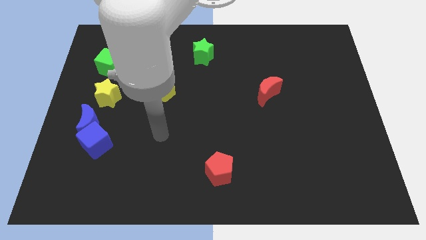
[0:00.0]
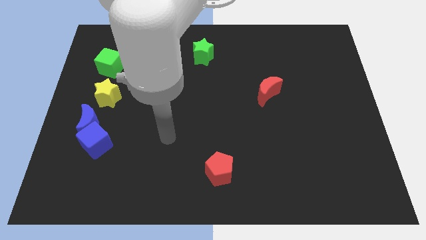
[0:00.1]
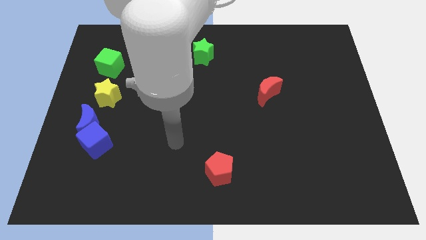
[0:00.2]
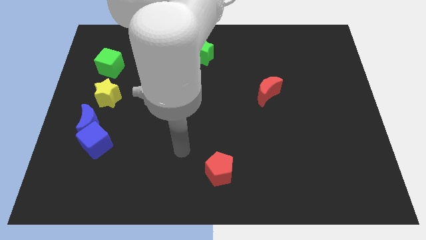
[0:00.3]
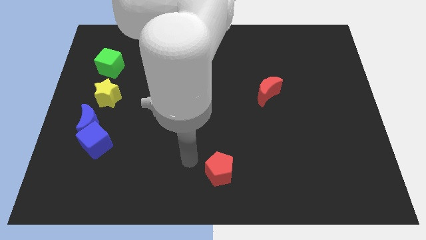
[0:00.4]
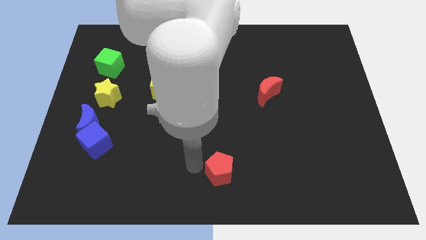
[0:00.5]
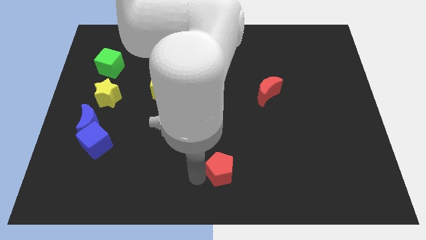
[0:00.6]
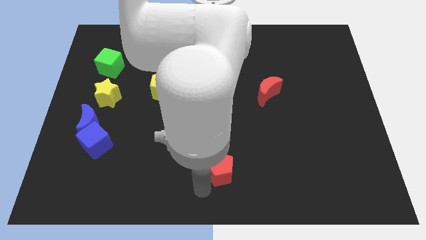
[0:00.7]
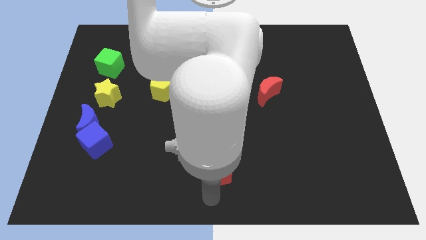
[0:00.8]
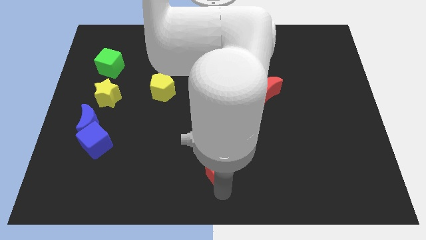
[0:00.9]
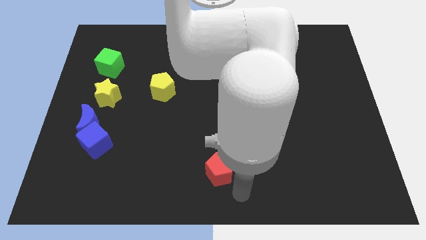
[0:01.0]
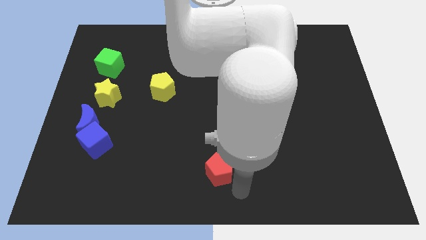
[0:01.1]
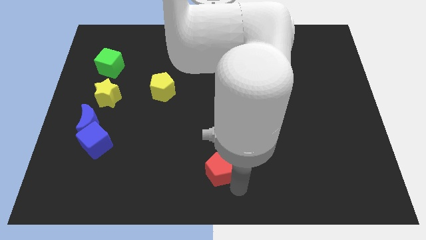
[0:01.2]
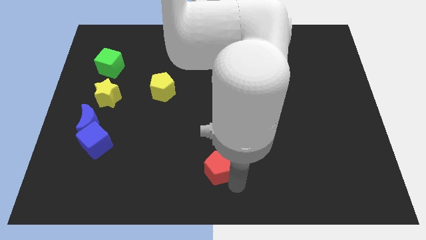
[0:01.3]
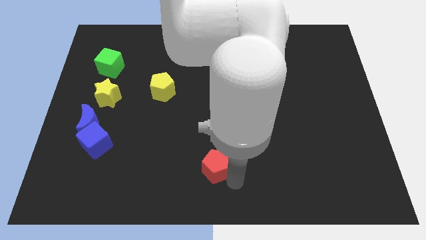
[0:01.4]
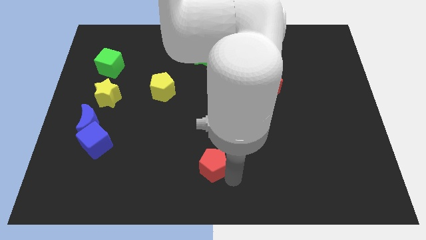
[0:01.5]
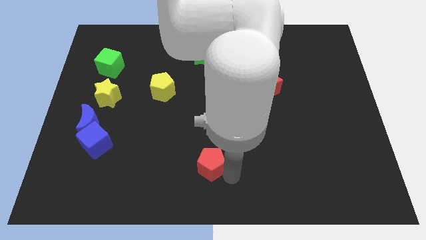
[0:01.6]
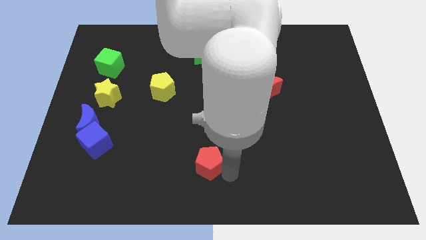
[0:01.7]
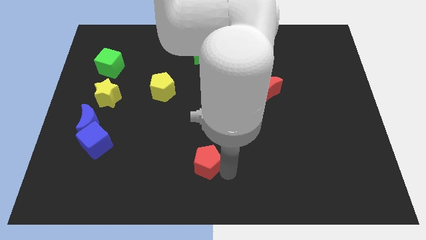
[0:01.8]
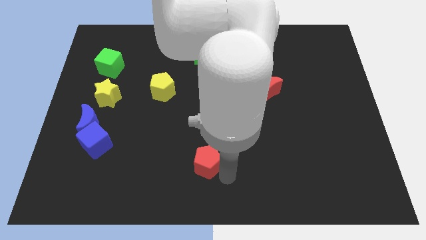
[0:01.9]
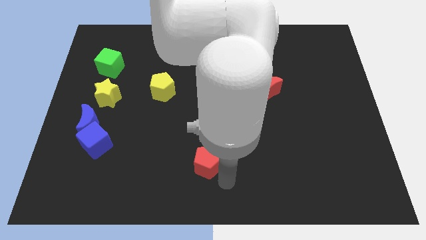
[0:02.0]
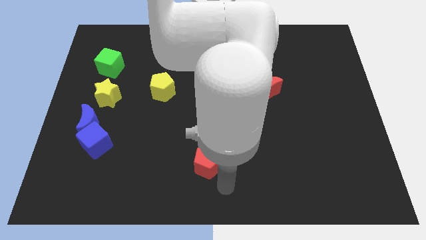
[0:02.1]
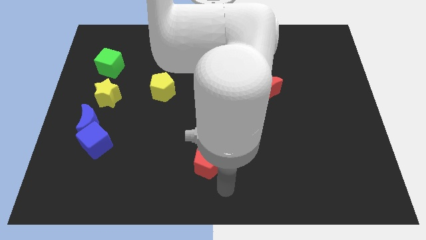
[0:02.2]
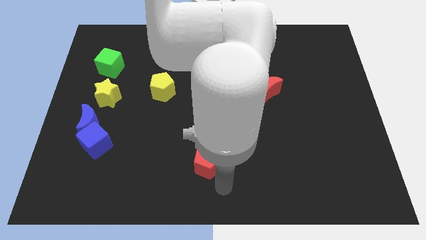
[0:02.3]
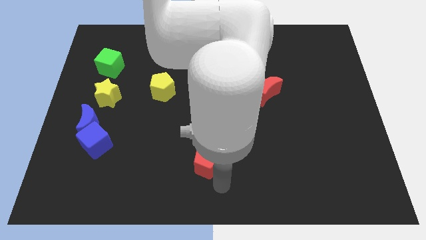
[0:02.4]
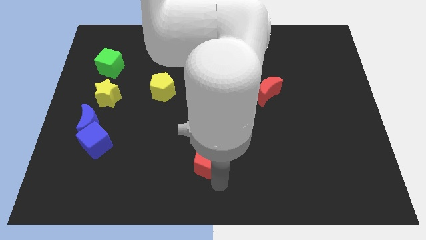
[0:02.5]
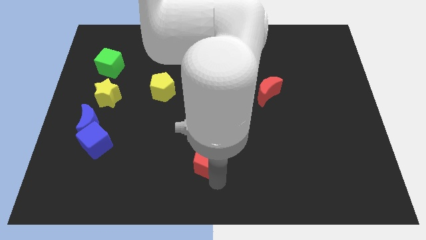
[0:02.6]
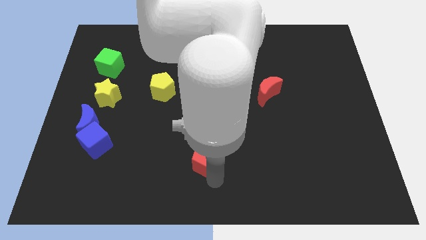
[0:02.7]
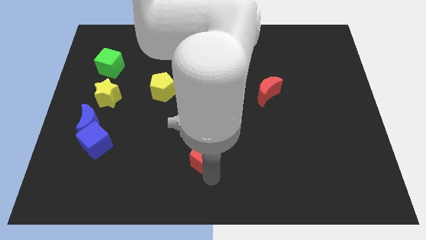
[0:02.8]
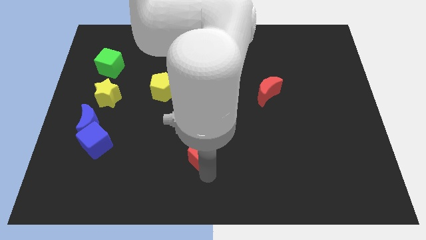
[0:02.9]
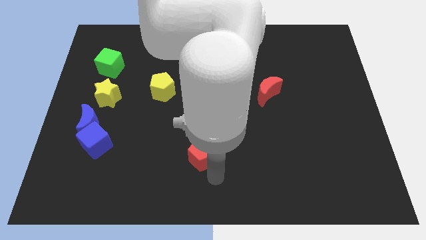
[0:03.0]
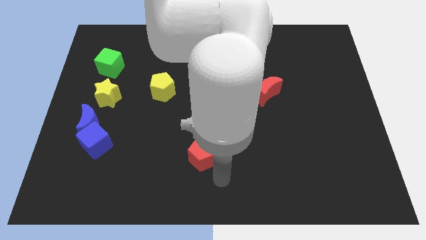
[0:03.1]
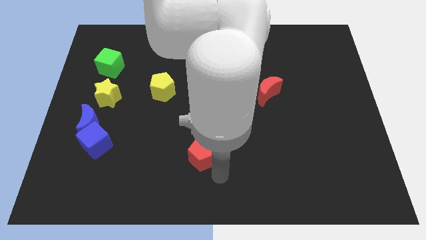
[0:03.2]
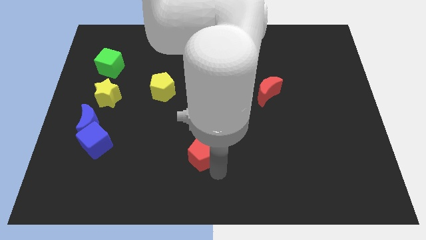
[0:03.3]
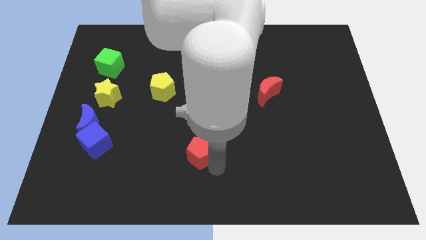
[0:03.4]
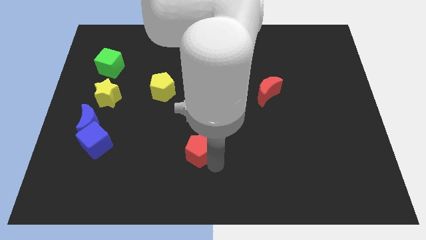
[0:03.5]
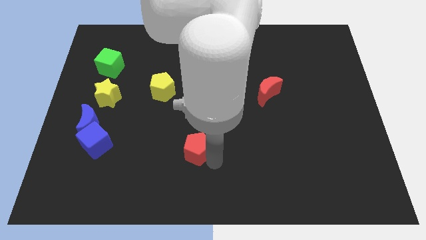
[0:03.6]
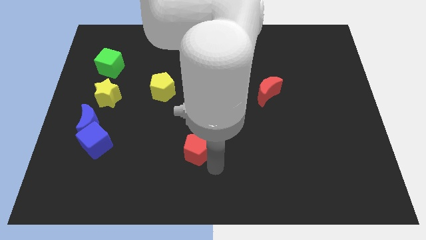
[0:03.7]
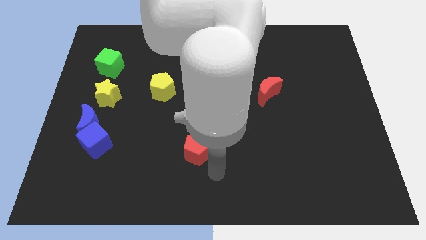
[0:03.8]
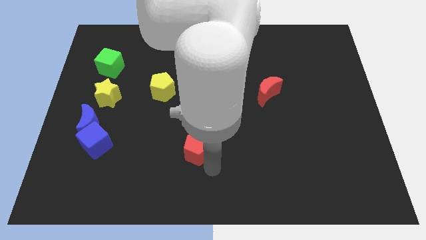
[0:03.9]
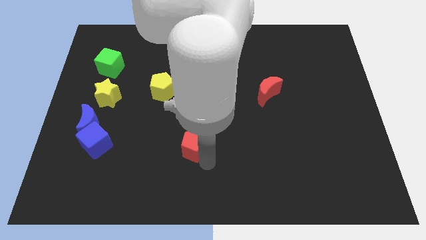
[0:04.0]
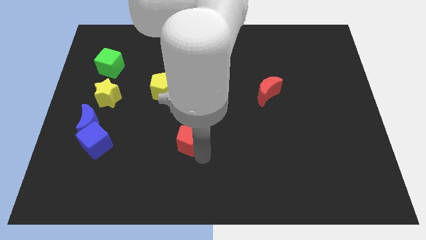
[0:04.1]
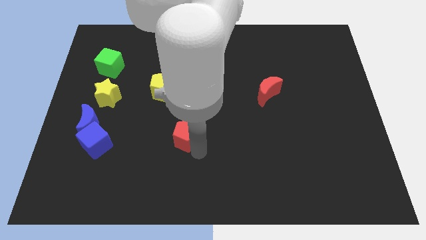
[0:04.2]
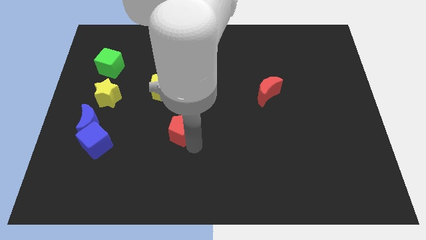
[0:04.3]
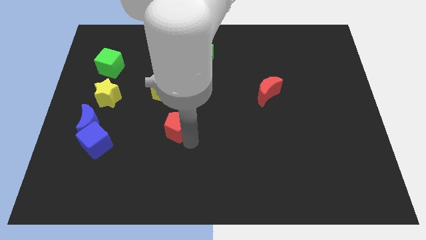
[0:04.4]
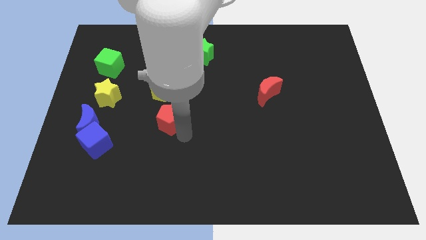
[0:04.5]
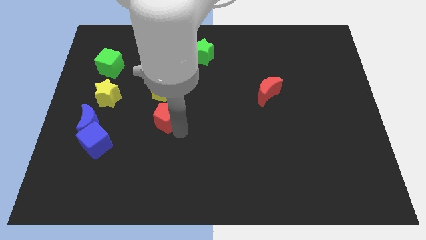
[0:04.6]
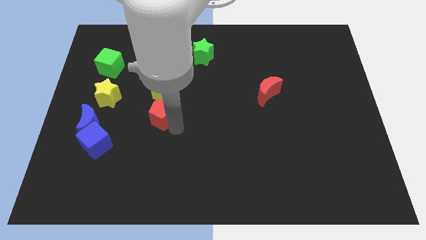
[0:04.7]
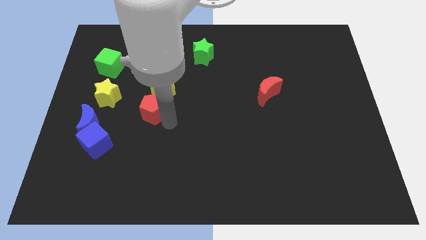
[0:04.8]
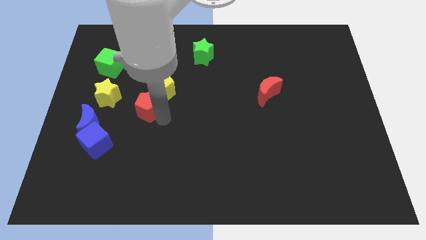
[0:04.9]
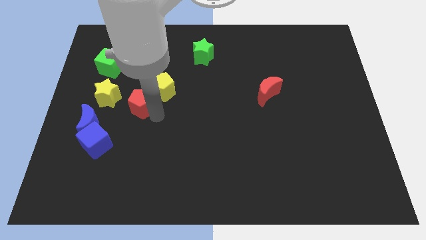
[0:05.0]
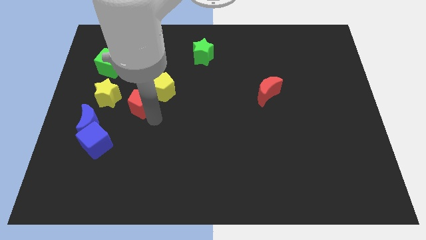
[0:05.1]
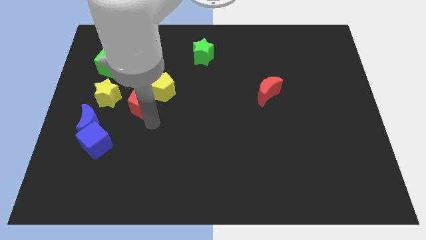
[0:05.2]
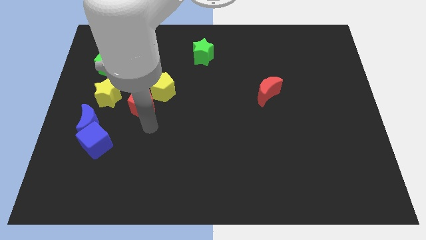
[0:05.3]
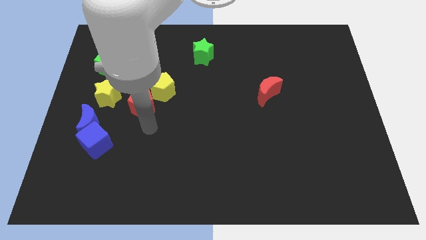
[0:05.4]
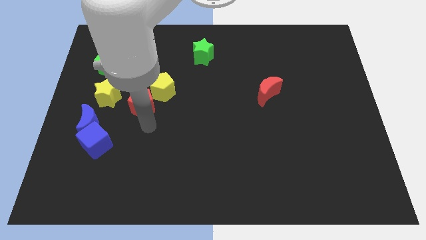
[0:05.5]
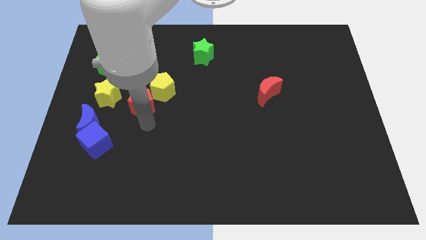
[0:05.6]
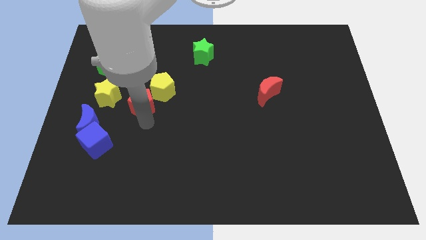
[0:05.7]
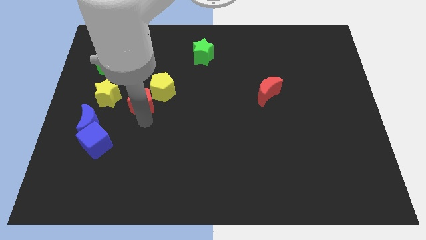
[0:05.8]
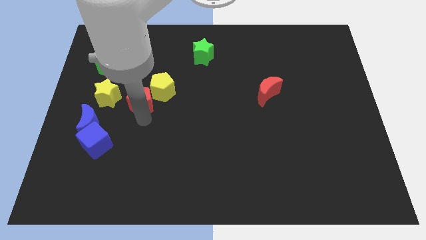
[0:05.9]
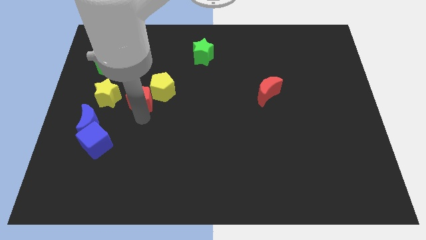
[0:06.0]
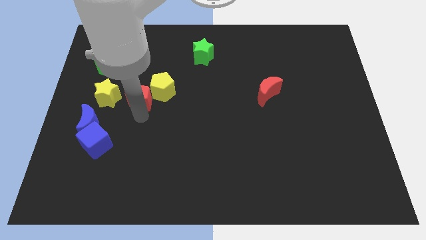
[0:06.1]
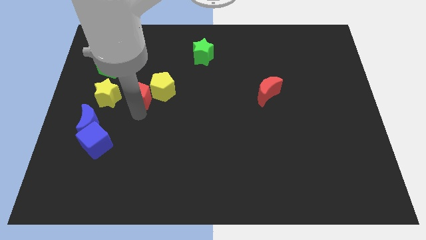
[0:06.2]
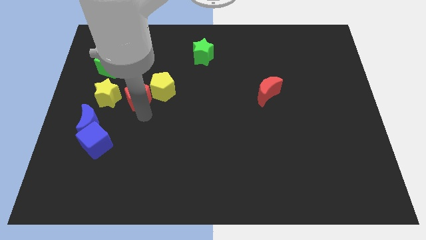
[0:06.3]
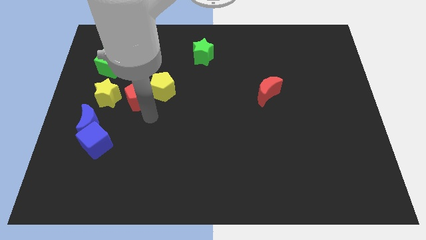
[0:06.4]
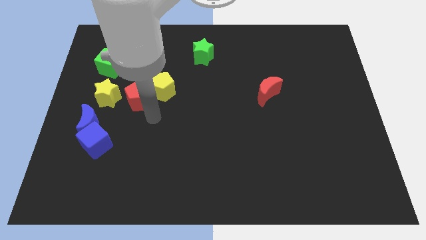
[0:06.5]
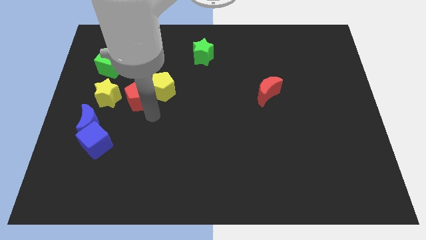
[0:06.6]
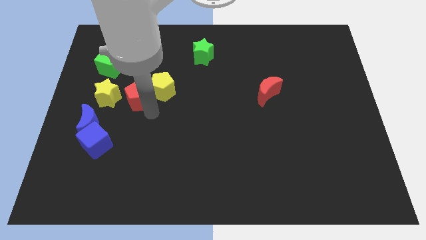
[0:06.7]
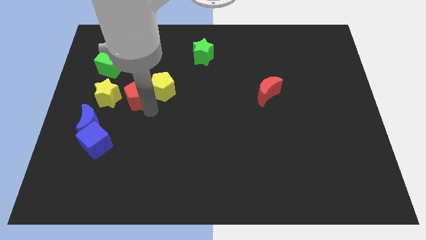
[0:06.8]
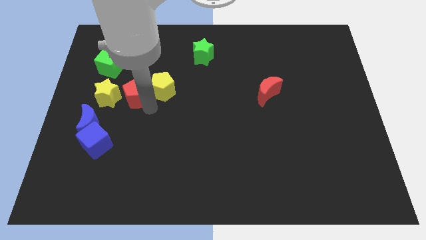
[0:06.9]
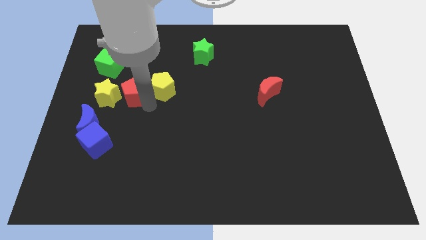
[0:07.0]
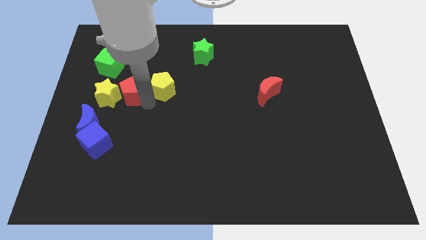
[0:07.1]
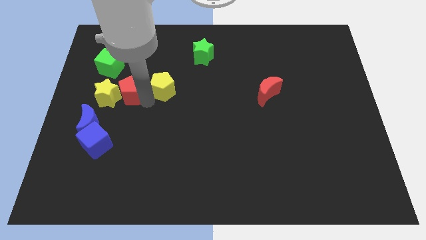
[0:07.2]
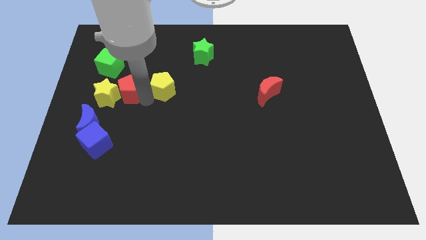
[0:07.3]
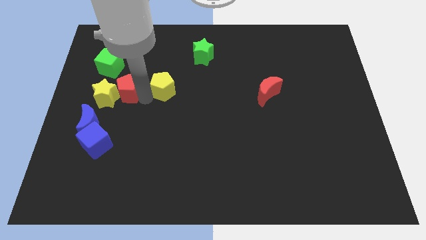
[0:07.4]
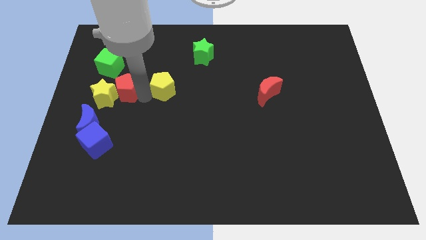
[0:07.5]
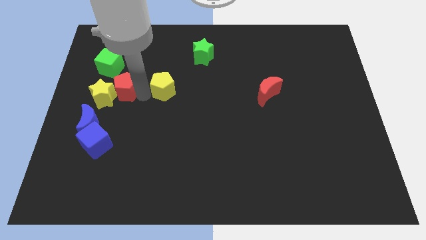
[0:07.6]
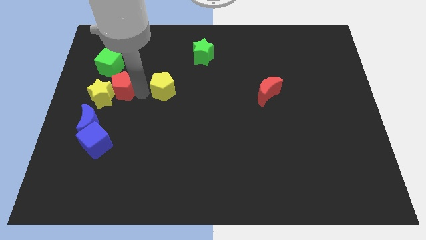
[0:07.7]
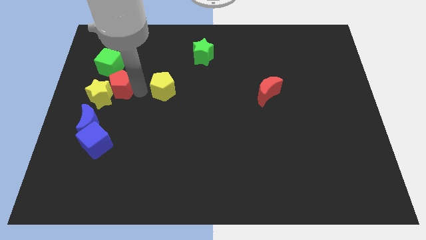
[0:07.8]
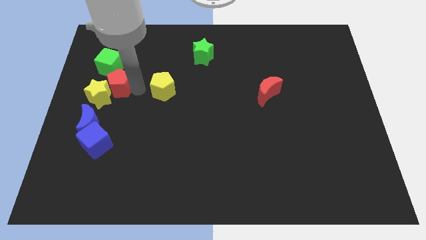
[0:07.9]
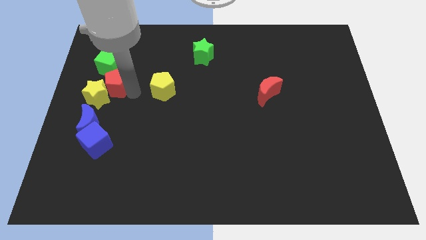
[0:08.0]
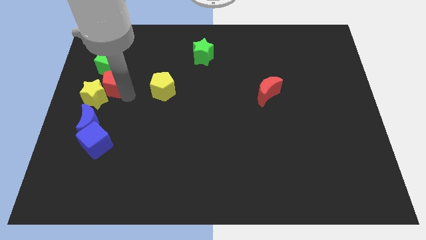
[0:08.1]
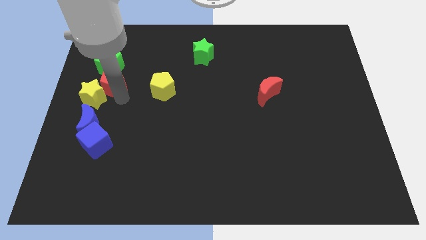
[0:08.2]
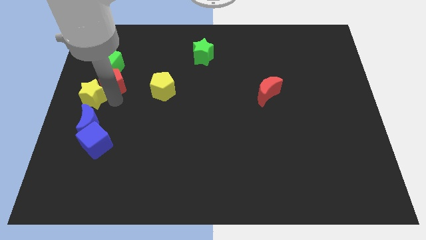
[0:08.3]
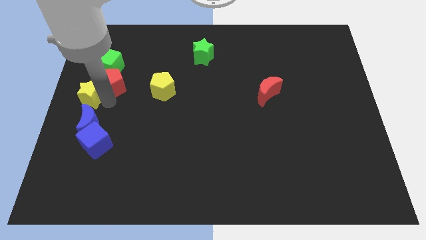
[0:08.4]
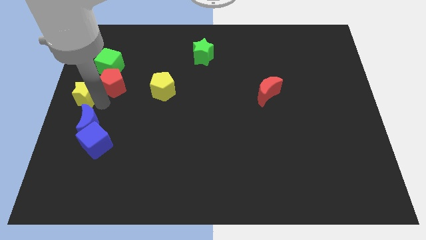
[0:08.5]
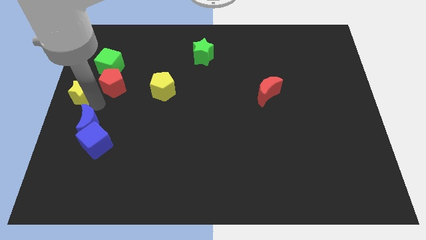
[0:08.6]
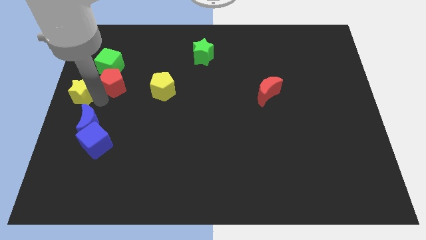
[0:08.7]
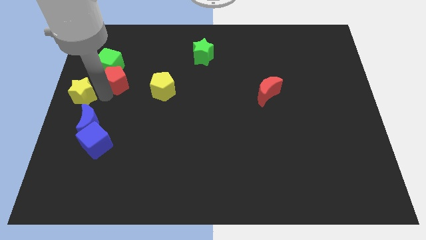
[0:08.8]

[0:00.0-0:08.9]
push the red pentagon close to the green cube
